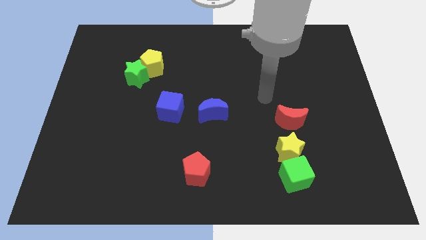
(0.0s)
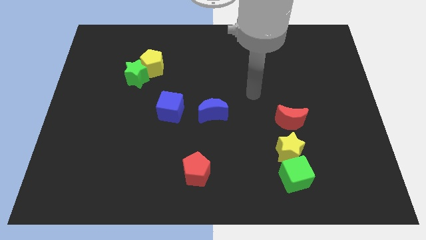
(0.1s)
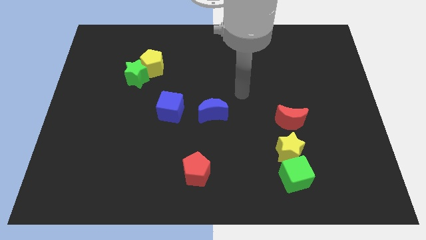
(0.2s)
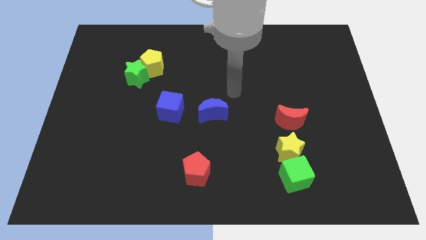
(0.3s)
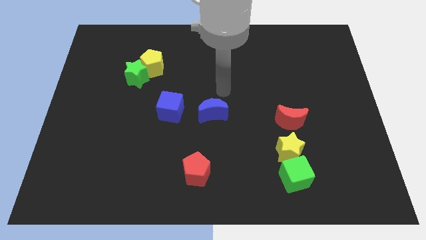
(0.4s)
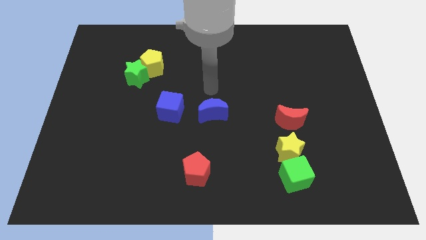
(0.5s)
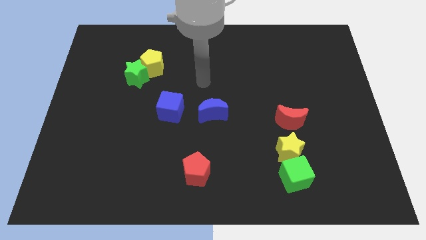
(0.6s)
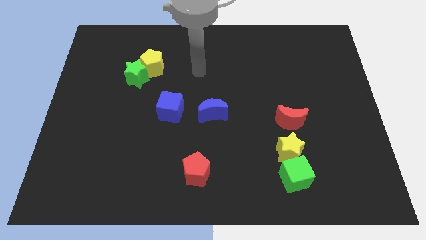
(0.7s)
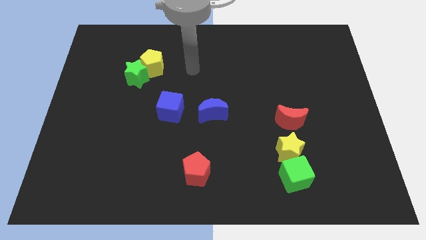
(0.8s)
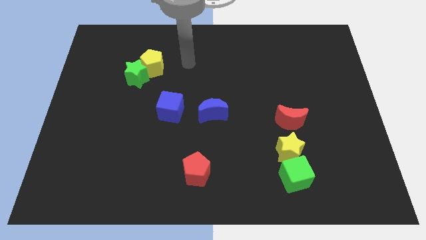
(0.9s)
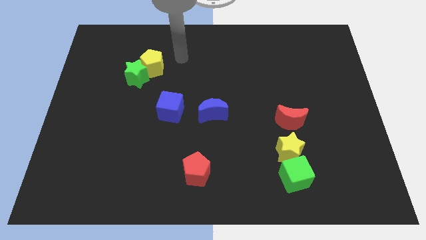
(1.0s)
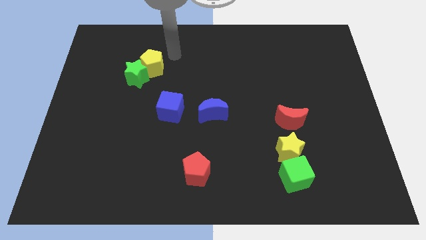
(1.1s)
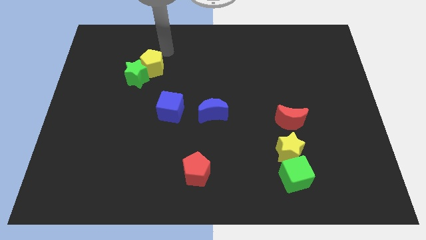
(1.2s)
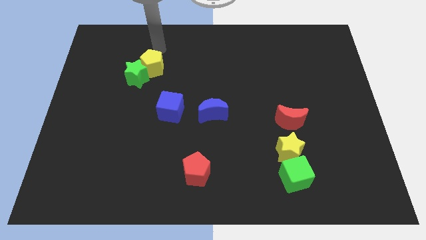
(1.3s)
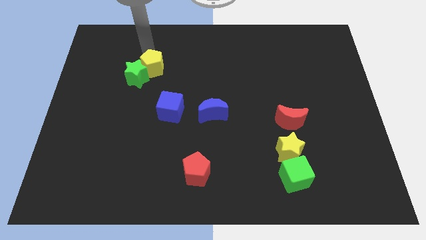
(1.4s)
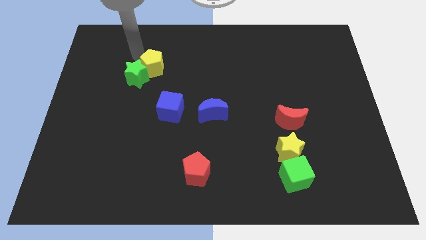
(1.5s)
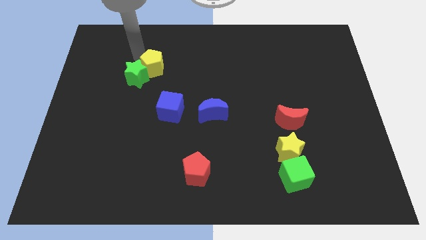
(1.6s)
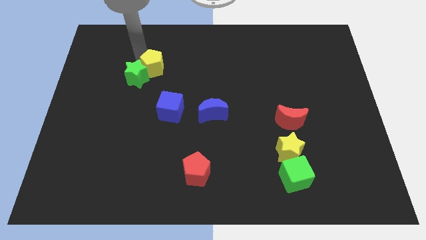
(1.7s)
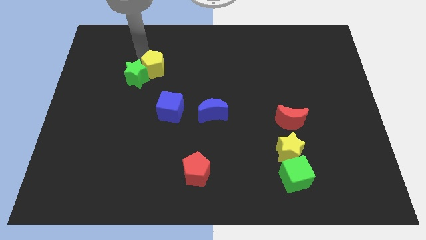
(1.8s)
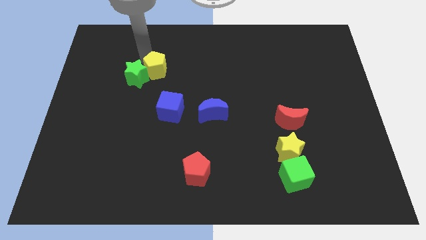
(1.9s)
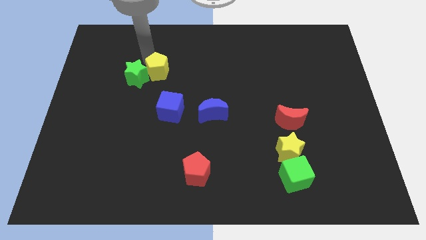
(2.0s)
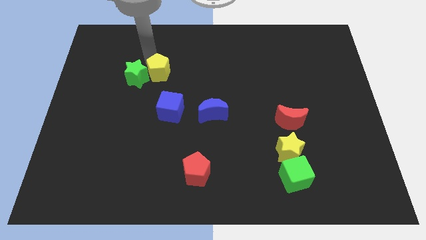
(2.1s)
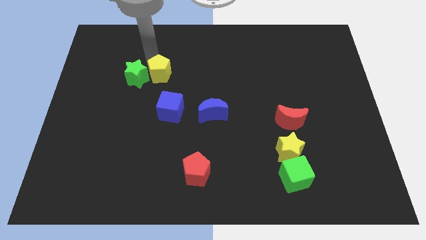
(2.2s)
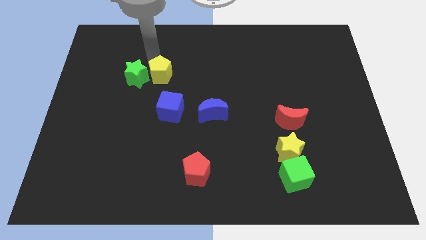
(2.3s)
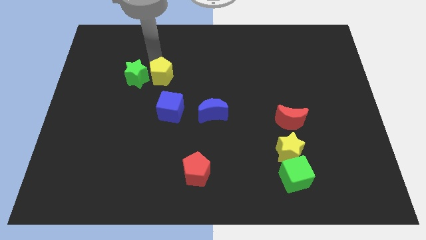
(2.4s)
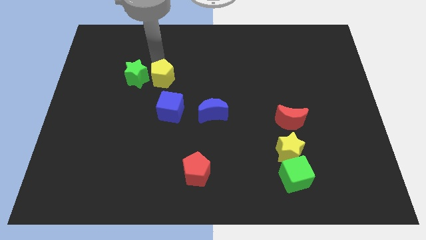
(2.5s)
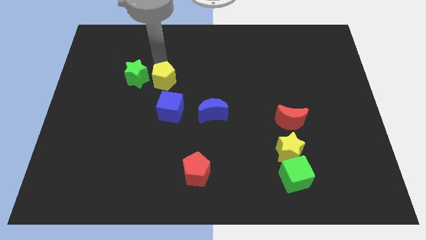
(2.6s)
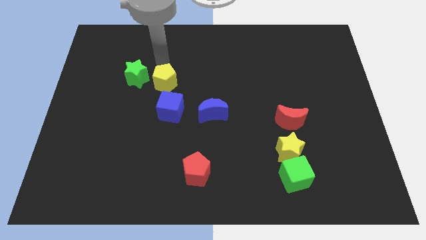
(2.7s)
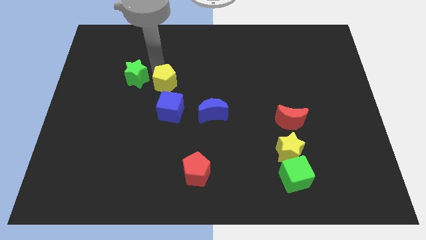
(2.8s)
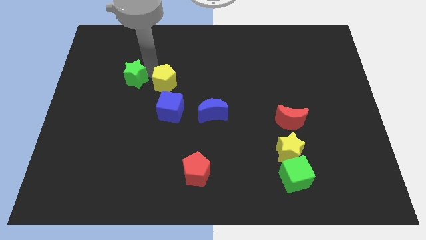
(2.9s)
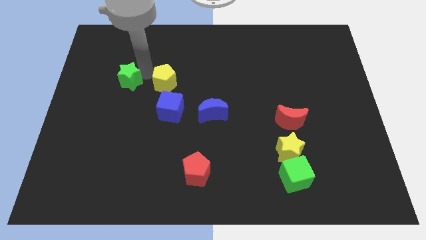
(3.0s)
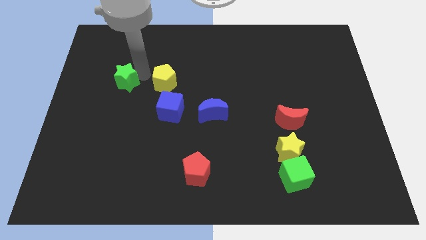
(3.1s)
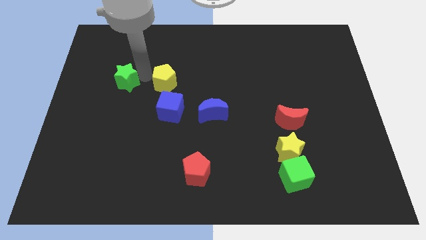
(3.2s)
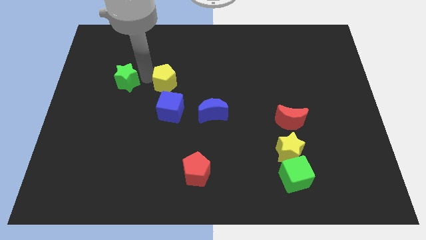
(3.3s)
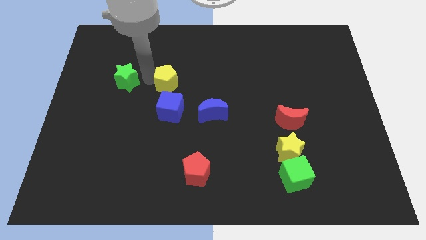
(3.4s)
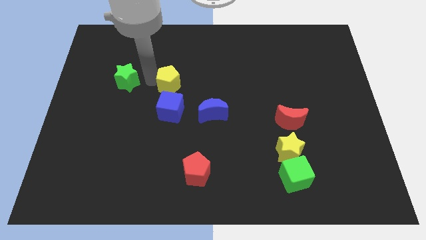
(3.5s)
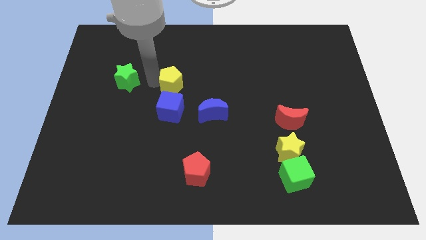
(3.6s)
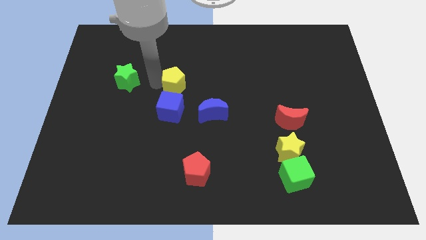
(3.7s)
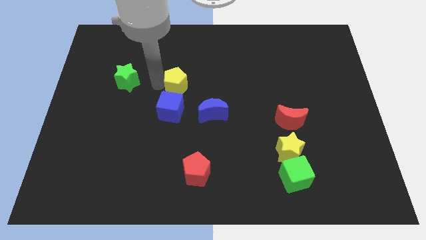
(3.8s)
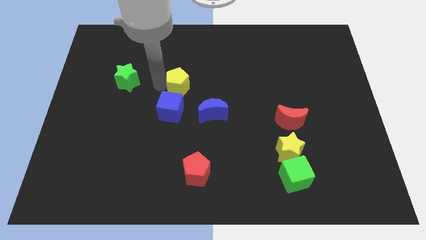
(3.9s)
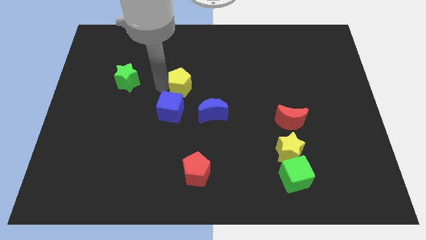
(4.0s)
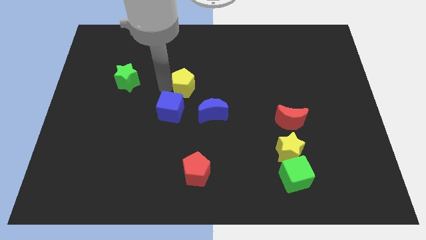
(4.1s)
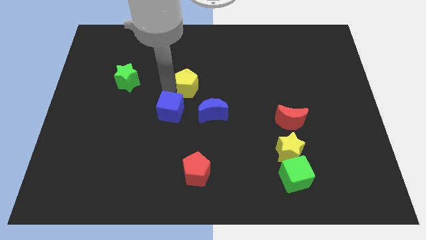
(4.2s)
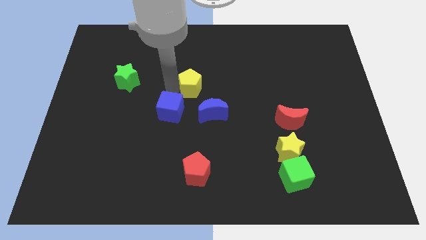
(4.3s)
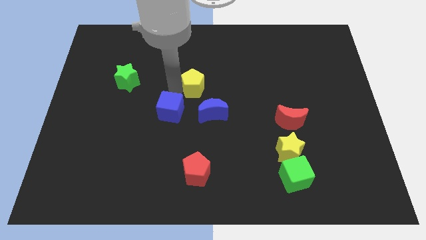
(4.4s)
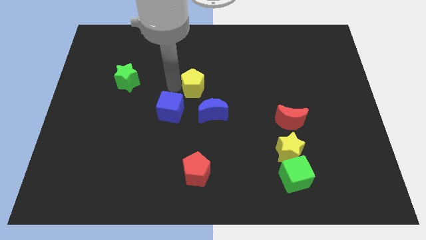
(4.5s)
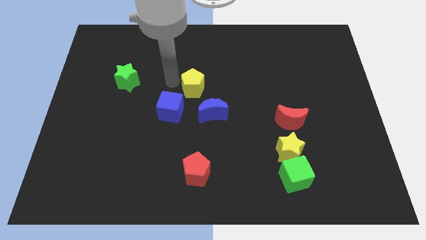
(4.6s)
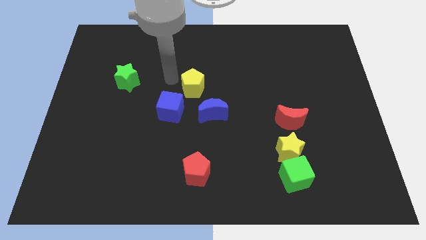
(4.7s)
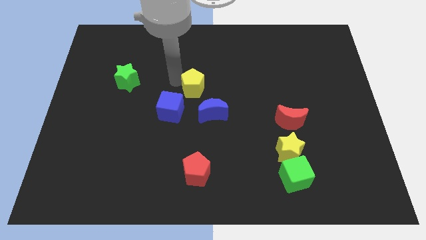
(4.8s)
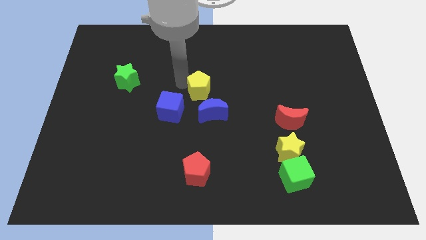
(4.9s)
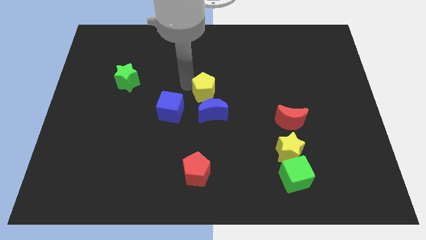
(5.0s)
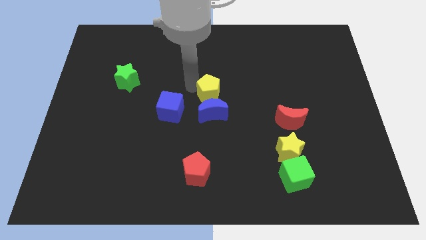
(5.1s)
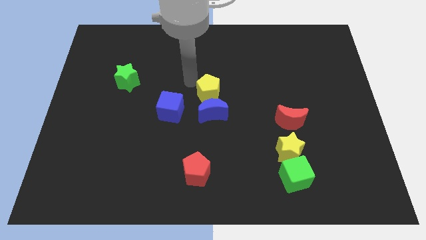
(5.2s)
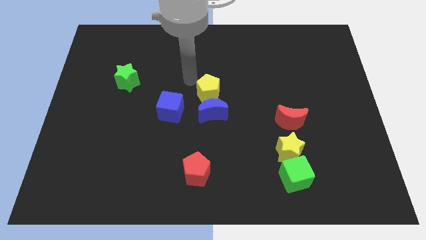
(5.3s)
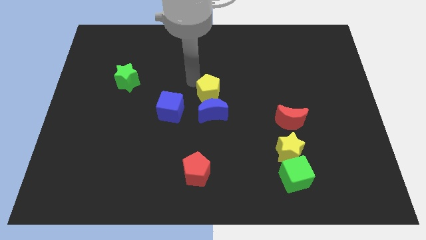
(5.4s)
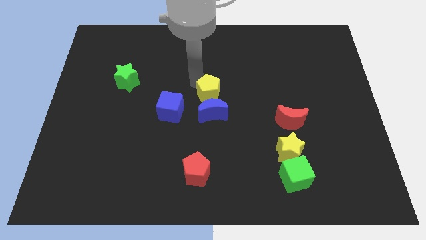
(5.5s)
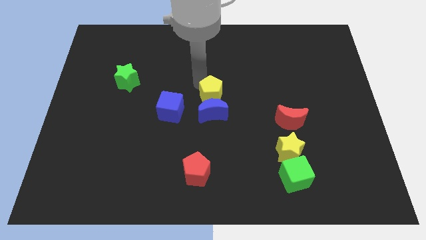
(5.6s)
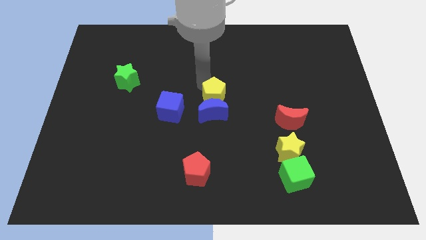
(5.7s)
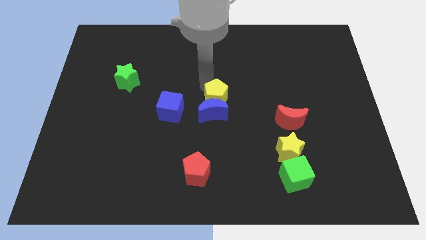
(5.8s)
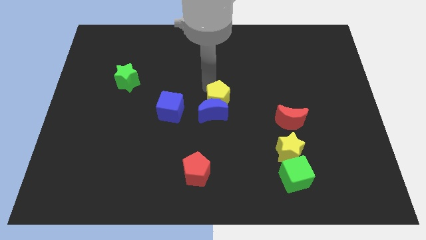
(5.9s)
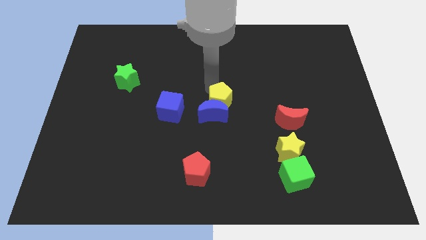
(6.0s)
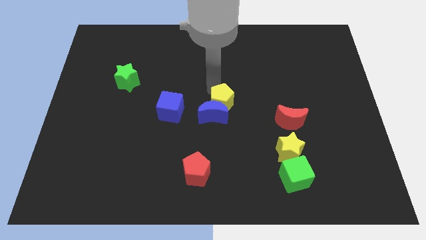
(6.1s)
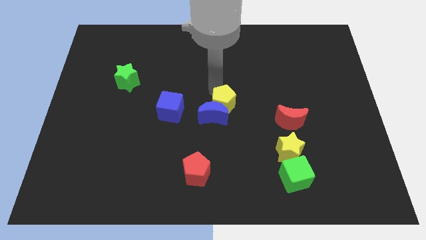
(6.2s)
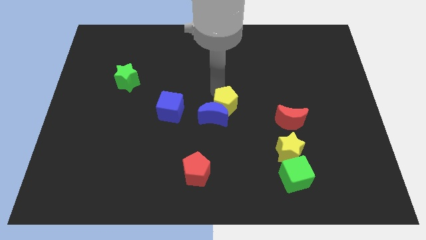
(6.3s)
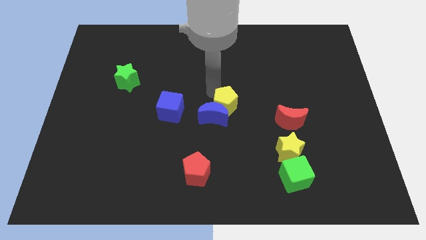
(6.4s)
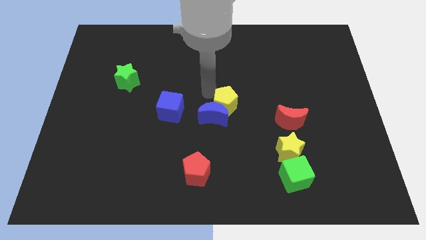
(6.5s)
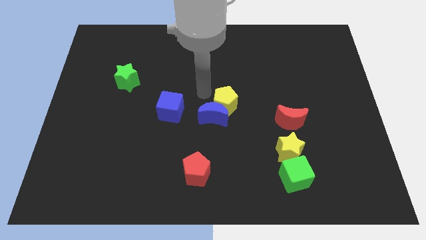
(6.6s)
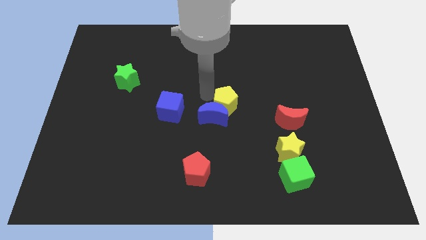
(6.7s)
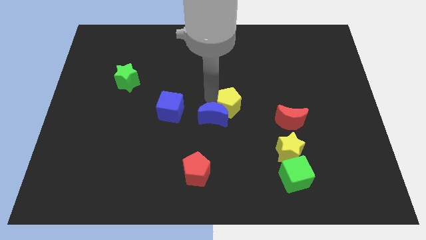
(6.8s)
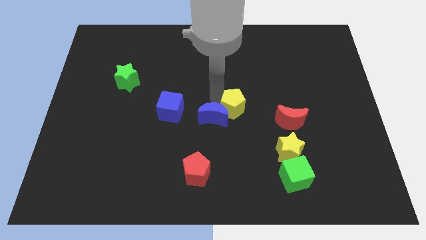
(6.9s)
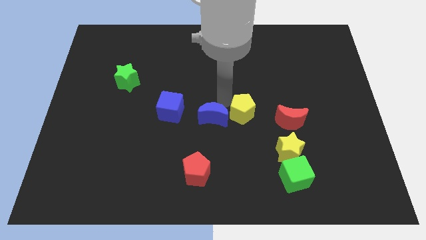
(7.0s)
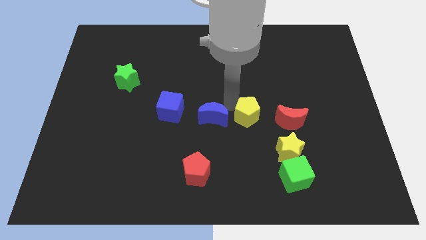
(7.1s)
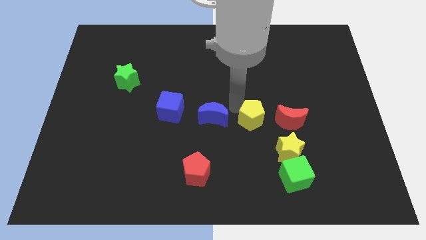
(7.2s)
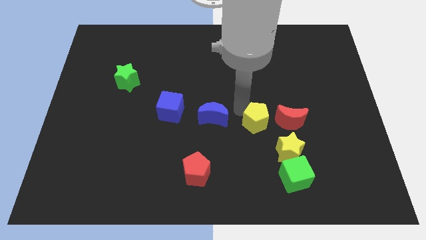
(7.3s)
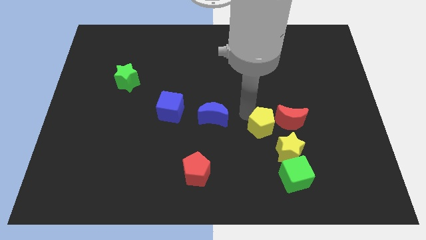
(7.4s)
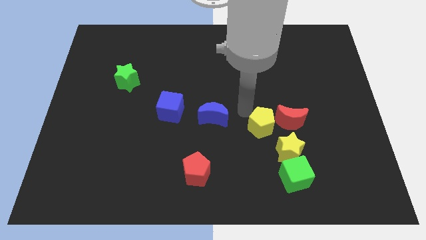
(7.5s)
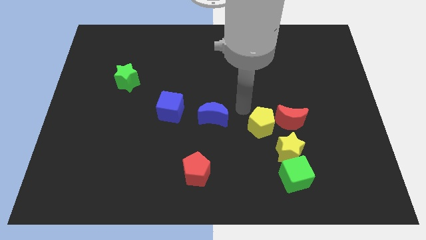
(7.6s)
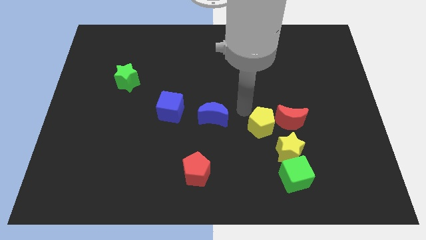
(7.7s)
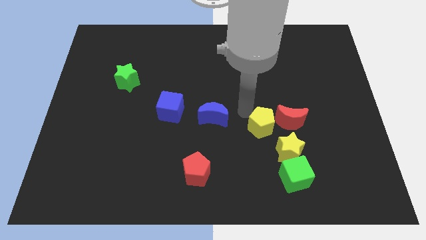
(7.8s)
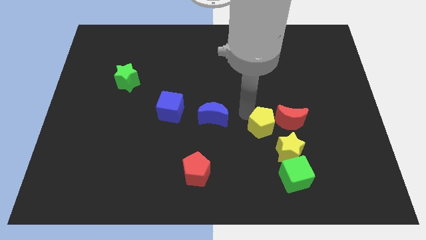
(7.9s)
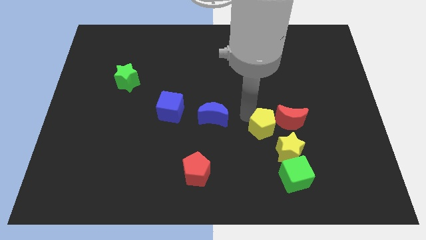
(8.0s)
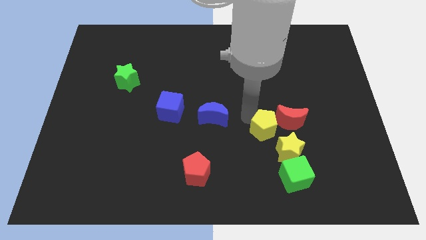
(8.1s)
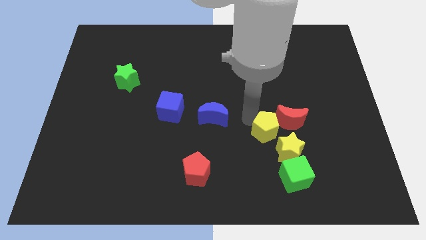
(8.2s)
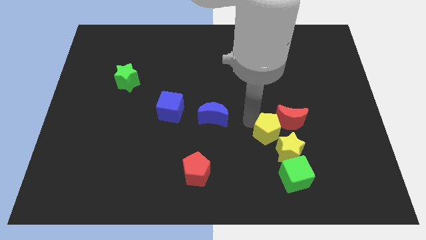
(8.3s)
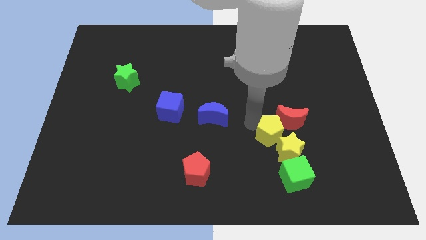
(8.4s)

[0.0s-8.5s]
move the yellow pentagon towards the yellow star
